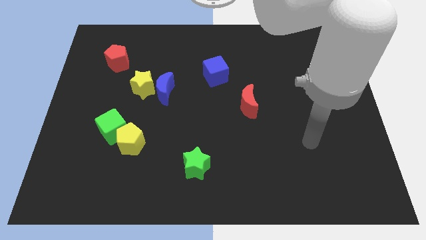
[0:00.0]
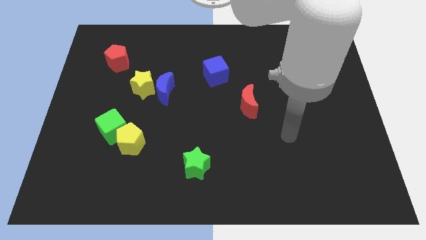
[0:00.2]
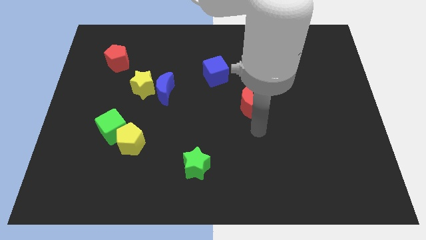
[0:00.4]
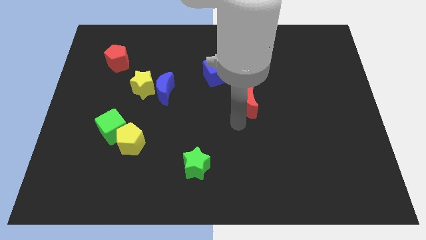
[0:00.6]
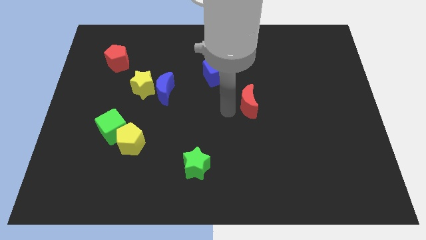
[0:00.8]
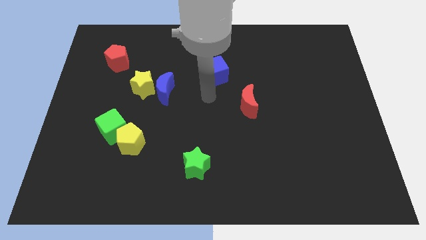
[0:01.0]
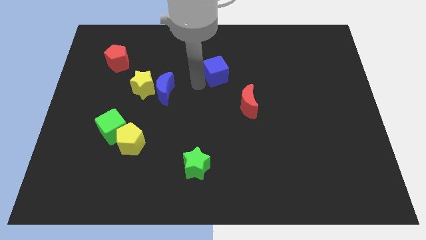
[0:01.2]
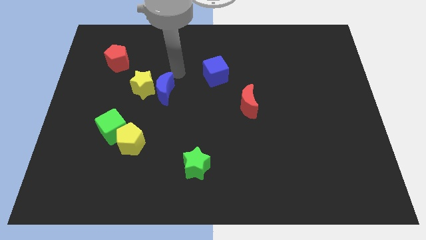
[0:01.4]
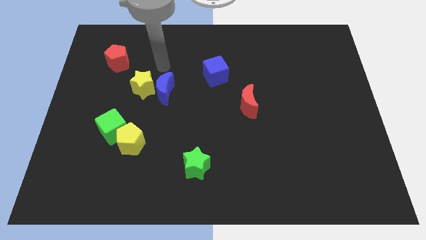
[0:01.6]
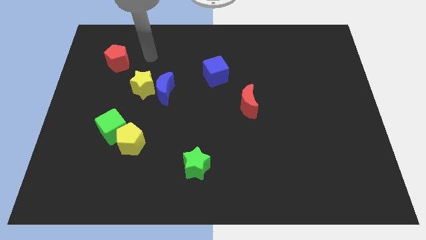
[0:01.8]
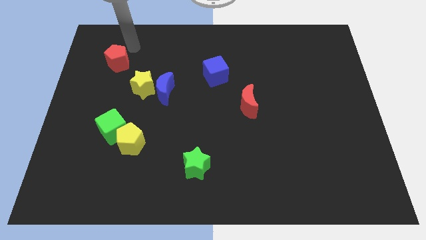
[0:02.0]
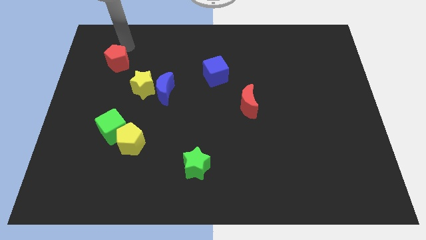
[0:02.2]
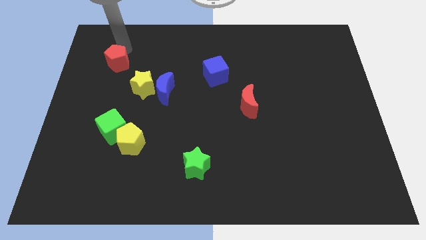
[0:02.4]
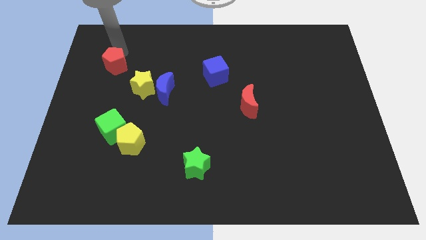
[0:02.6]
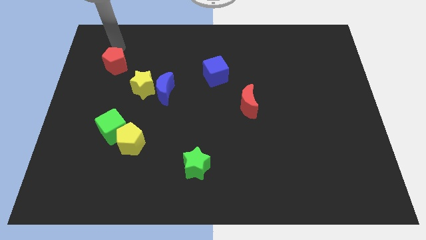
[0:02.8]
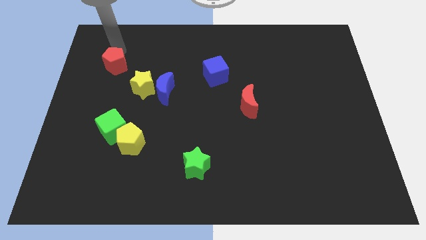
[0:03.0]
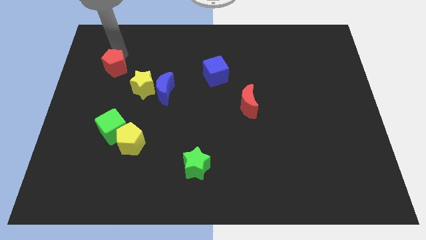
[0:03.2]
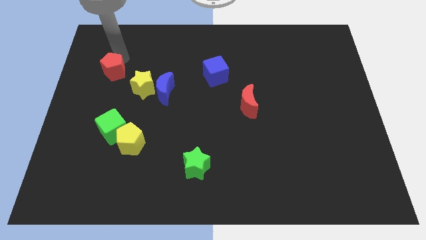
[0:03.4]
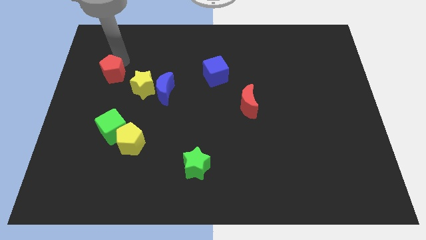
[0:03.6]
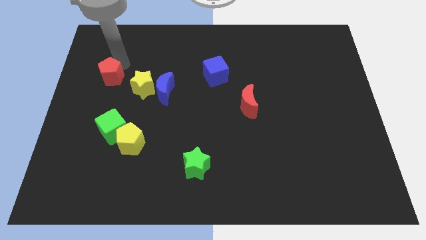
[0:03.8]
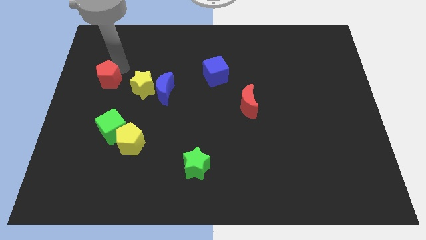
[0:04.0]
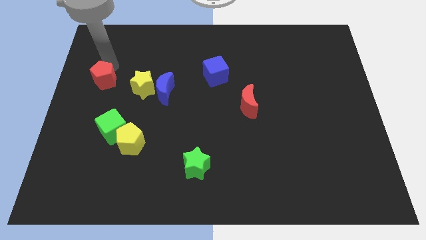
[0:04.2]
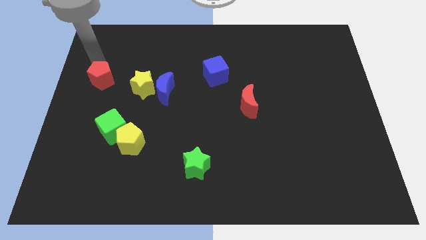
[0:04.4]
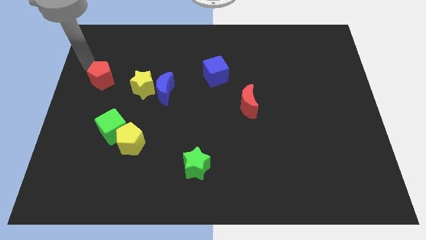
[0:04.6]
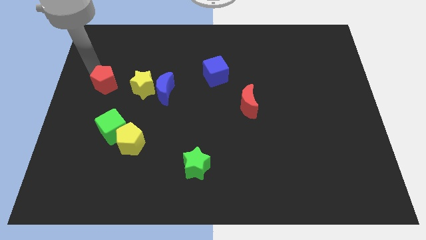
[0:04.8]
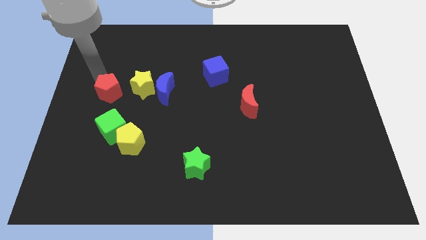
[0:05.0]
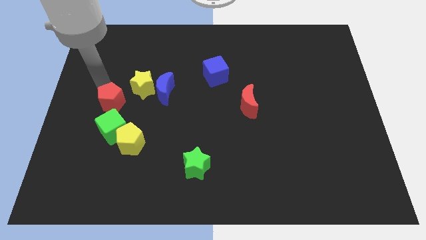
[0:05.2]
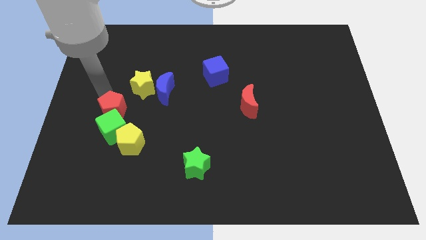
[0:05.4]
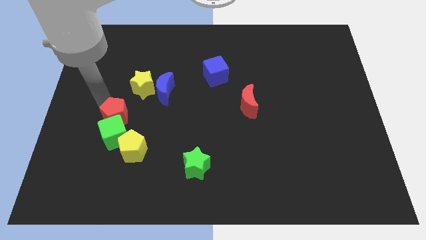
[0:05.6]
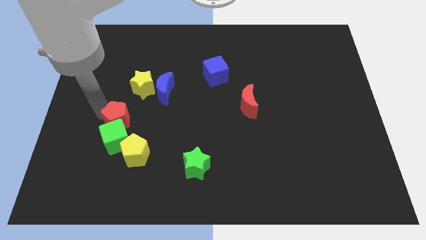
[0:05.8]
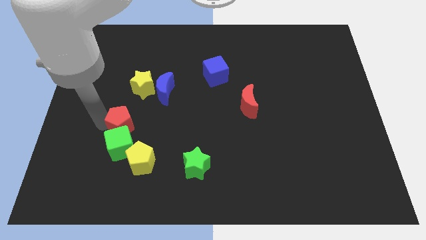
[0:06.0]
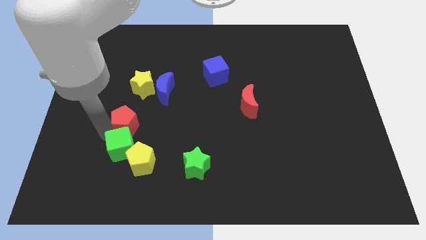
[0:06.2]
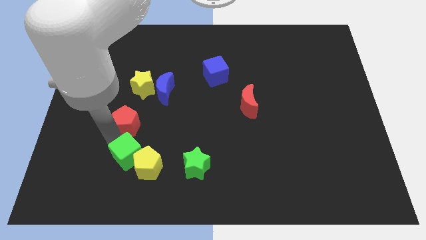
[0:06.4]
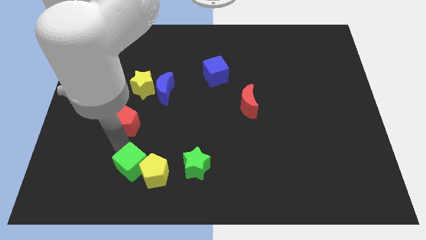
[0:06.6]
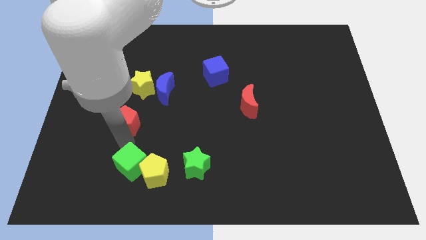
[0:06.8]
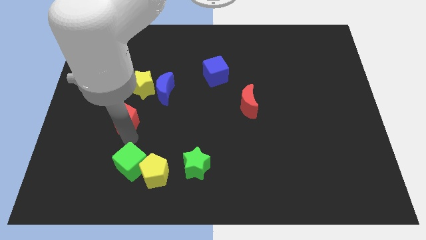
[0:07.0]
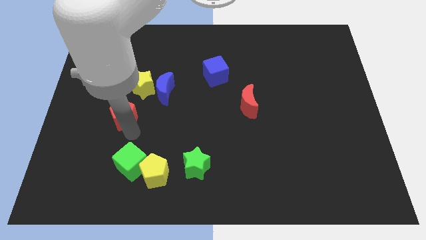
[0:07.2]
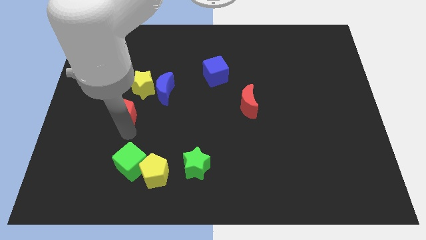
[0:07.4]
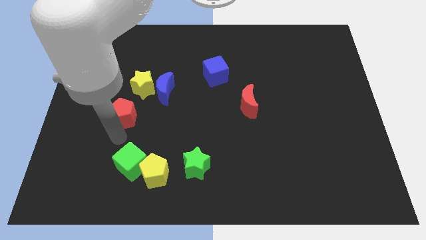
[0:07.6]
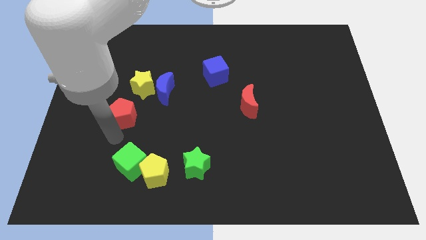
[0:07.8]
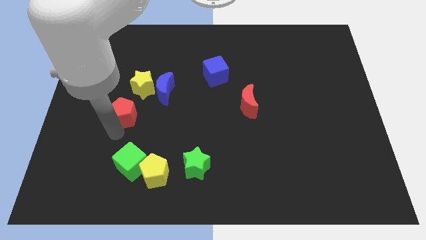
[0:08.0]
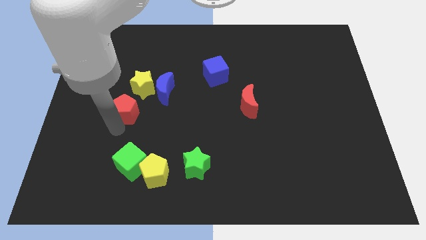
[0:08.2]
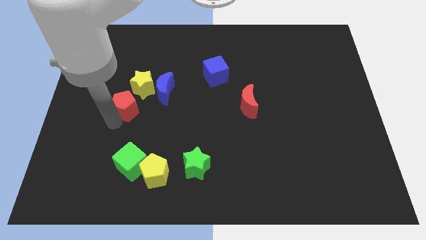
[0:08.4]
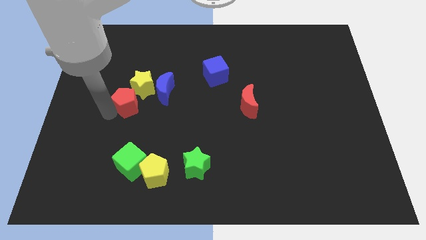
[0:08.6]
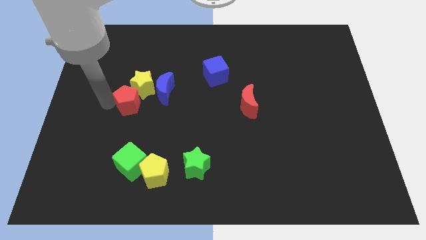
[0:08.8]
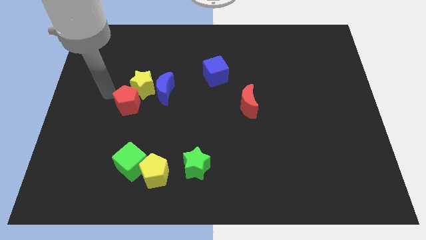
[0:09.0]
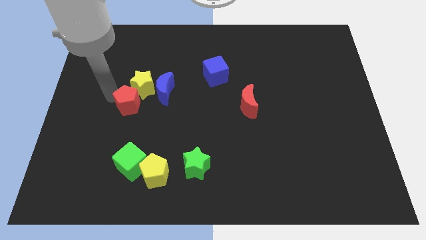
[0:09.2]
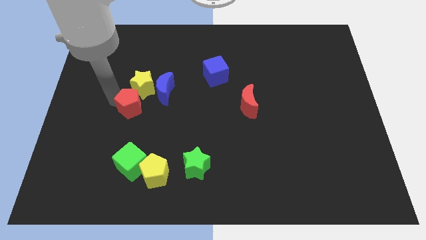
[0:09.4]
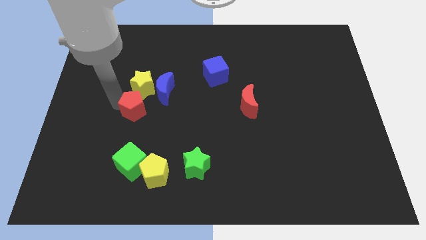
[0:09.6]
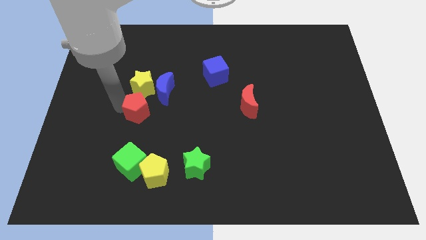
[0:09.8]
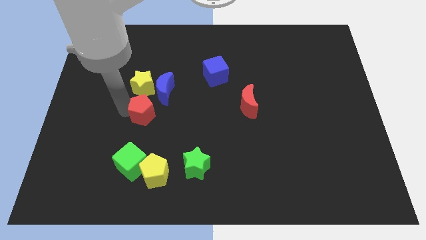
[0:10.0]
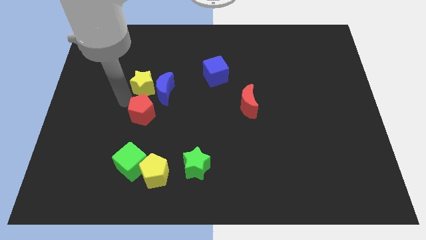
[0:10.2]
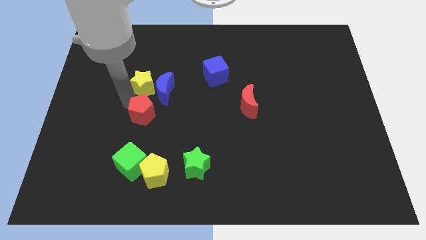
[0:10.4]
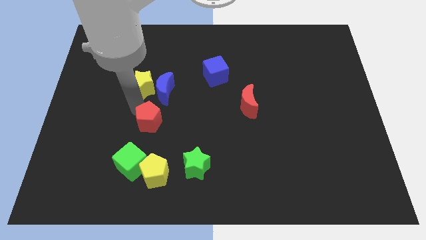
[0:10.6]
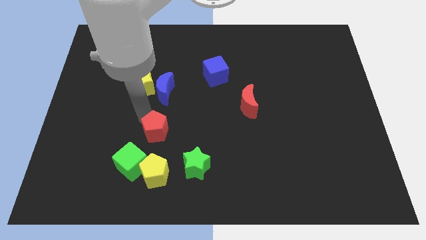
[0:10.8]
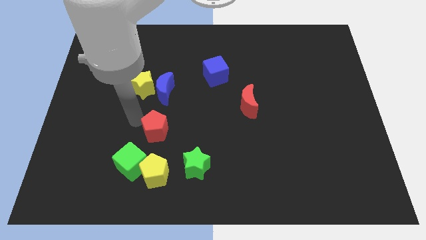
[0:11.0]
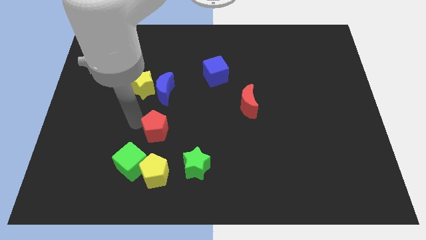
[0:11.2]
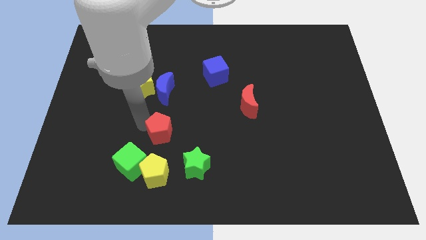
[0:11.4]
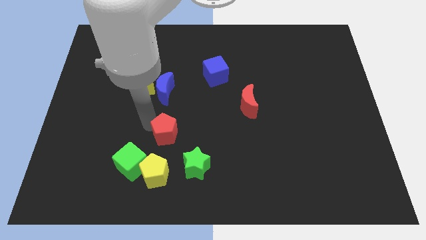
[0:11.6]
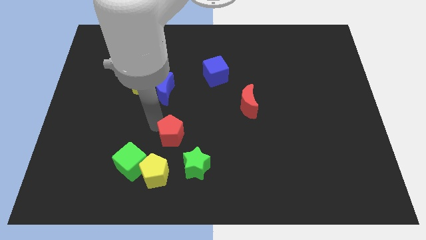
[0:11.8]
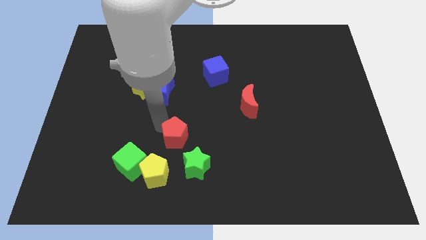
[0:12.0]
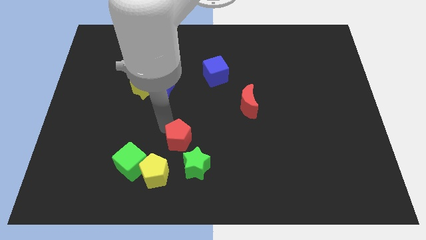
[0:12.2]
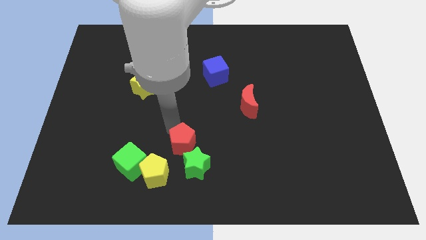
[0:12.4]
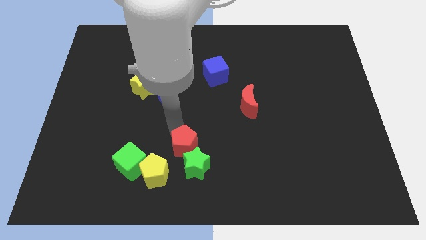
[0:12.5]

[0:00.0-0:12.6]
move the red pentagon to the green star
